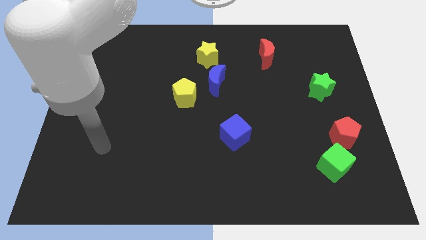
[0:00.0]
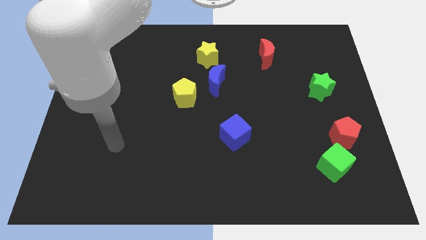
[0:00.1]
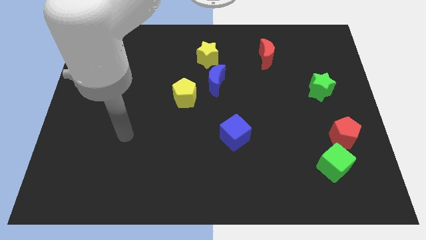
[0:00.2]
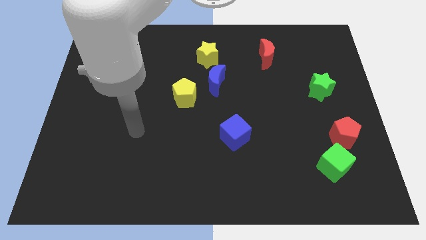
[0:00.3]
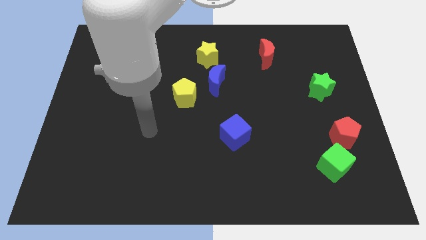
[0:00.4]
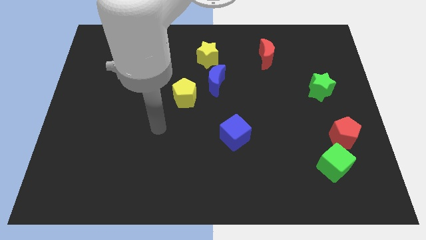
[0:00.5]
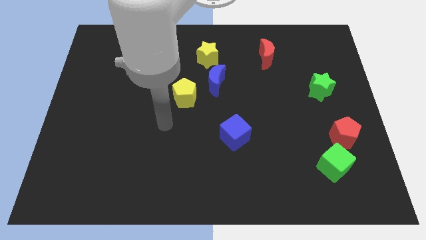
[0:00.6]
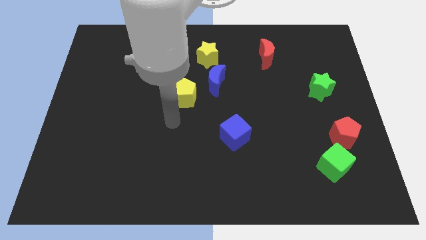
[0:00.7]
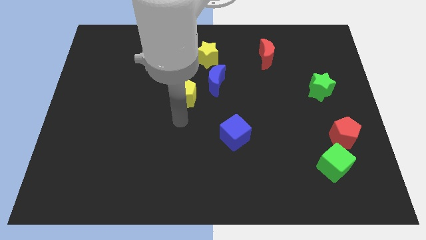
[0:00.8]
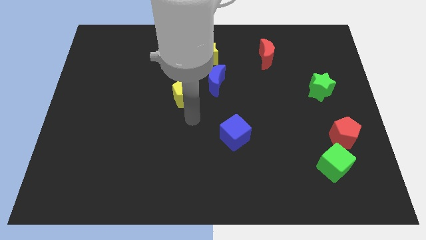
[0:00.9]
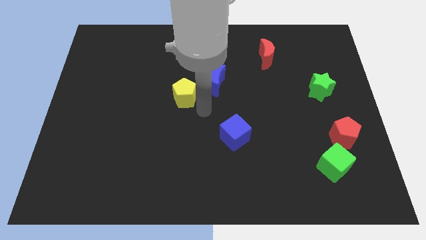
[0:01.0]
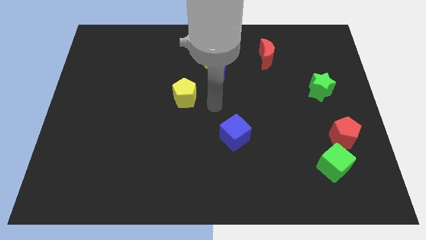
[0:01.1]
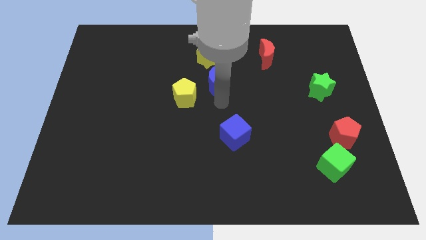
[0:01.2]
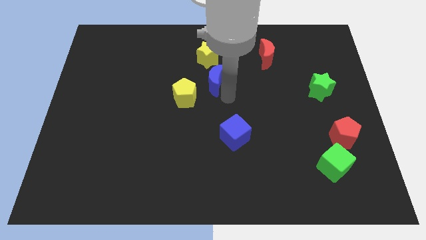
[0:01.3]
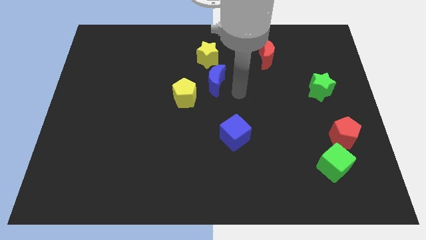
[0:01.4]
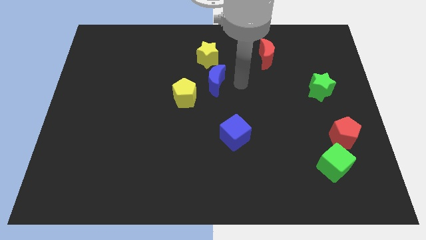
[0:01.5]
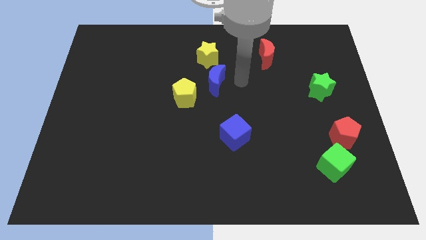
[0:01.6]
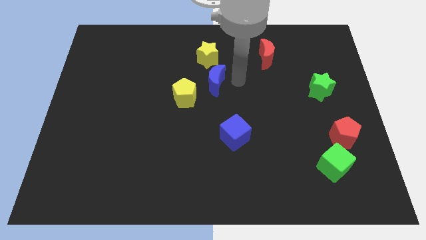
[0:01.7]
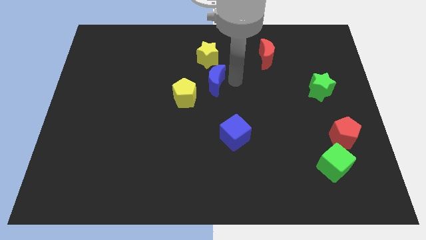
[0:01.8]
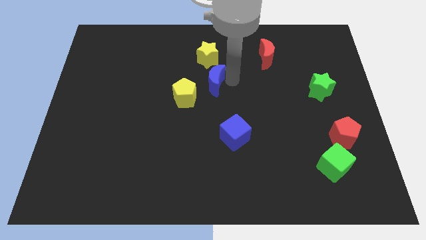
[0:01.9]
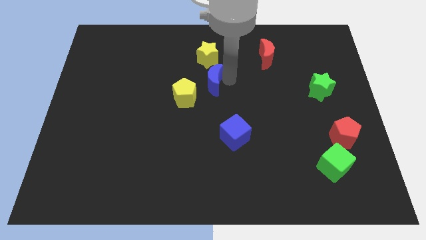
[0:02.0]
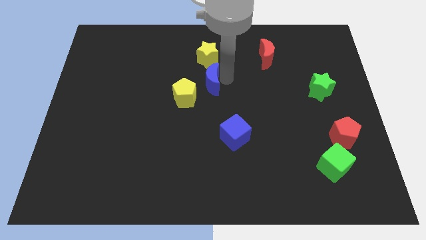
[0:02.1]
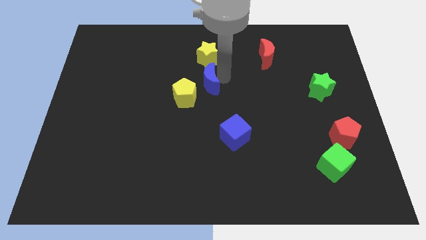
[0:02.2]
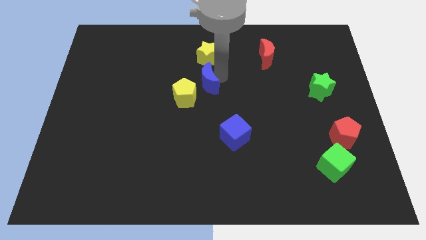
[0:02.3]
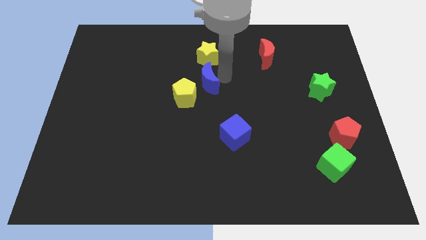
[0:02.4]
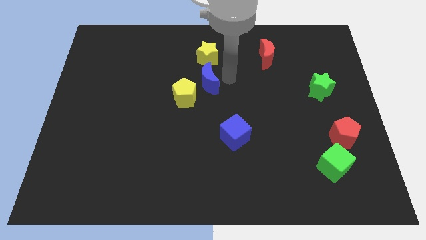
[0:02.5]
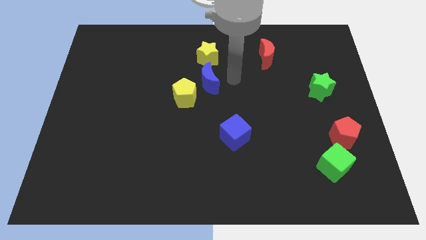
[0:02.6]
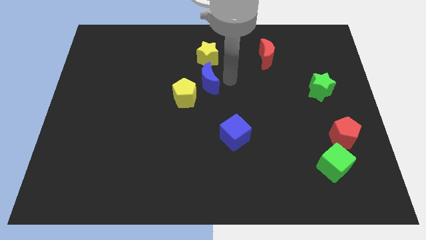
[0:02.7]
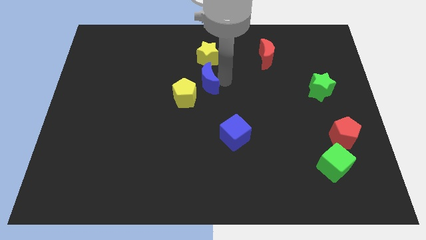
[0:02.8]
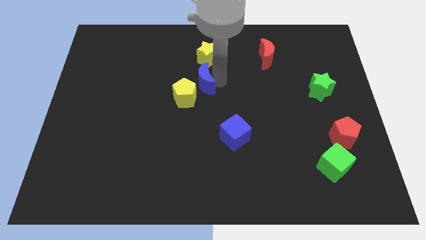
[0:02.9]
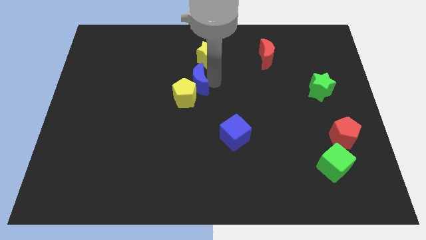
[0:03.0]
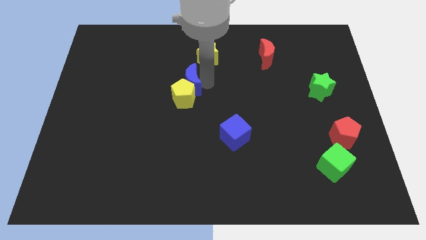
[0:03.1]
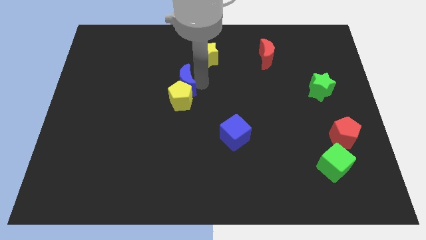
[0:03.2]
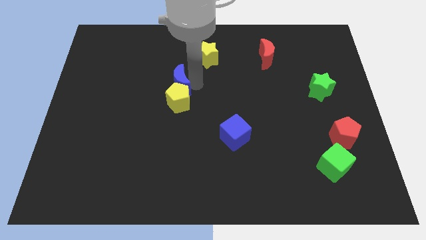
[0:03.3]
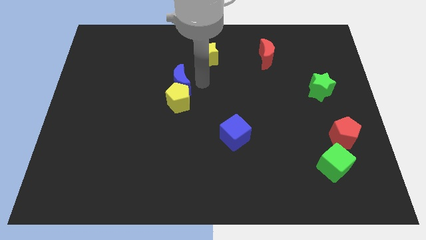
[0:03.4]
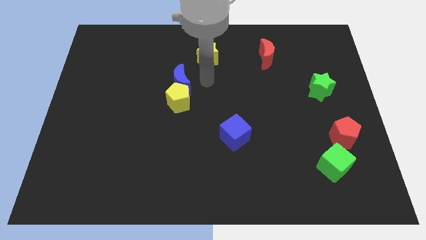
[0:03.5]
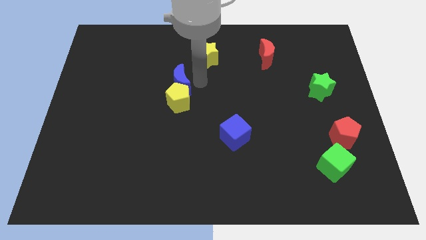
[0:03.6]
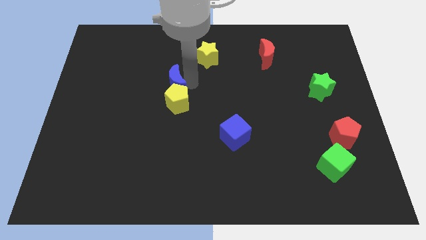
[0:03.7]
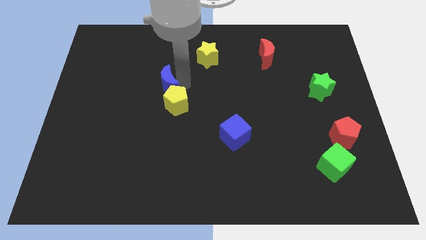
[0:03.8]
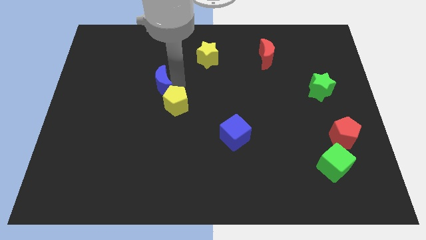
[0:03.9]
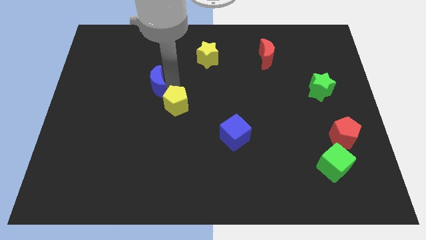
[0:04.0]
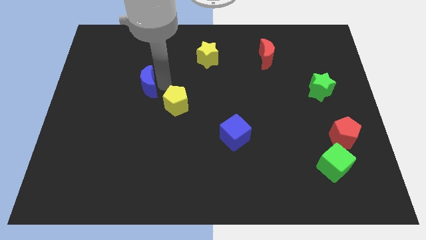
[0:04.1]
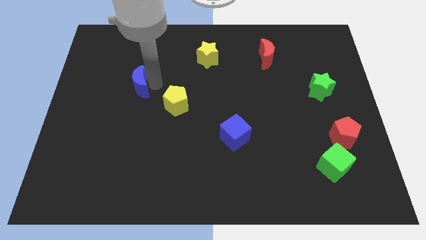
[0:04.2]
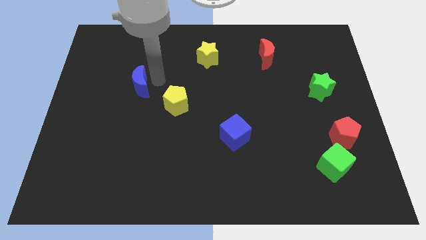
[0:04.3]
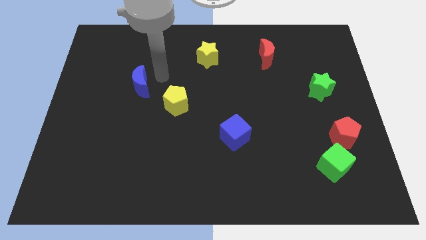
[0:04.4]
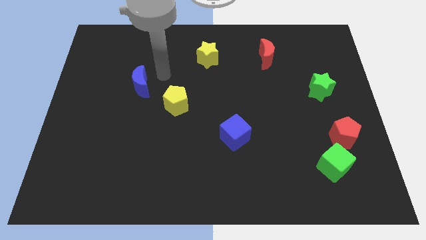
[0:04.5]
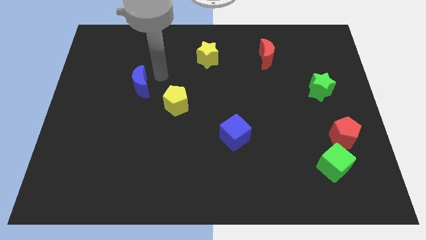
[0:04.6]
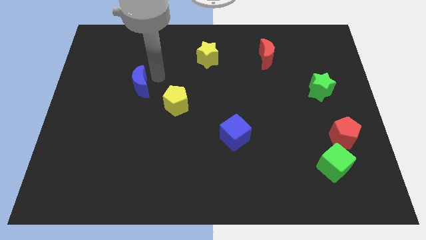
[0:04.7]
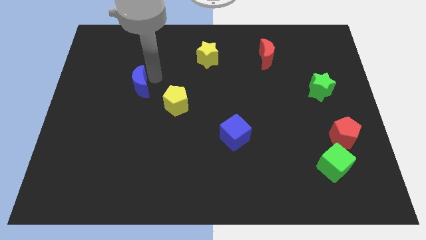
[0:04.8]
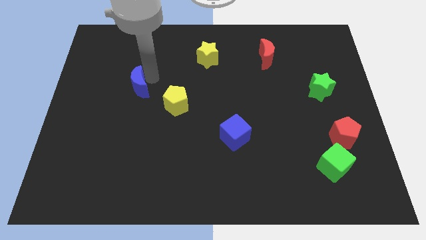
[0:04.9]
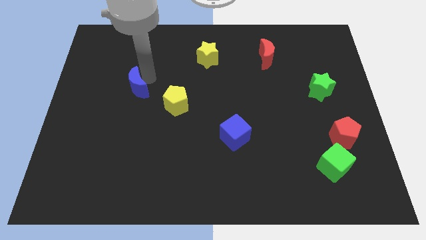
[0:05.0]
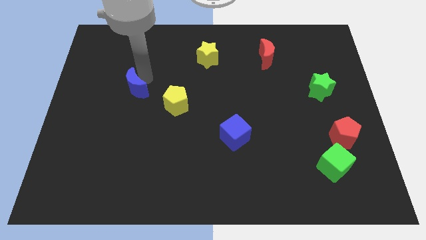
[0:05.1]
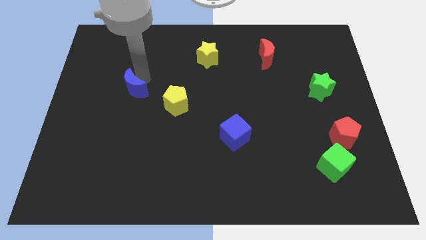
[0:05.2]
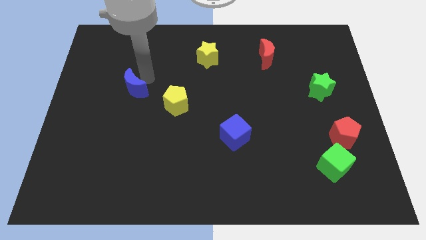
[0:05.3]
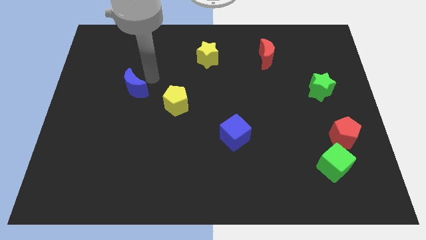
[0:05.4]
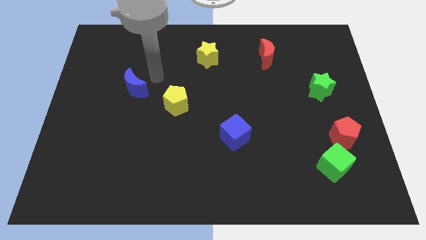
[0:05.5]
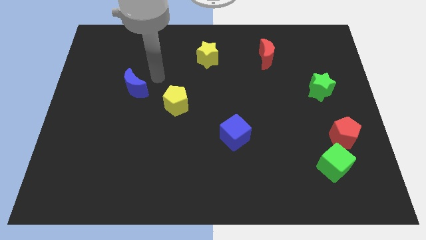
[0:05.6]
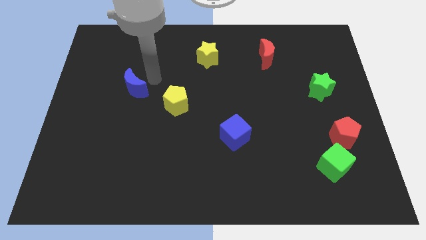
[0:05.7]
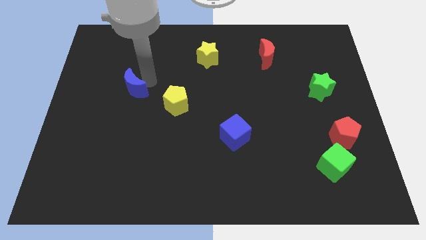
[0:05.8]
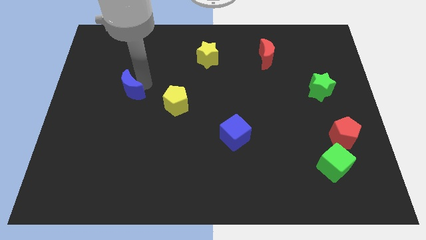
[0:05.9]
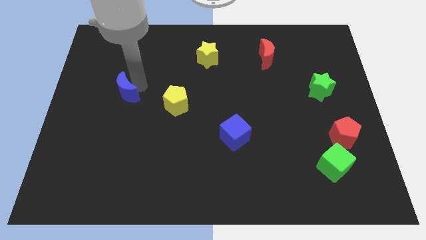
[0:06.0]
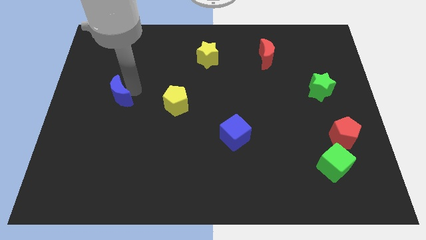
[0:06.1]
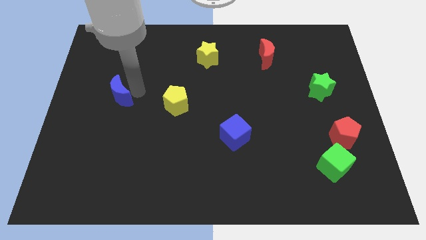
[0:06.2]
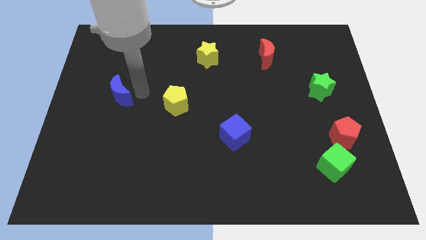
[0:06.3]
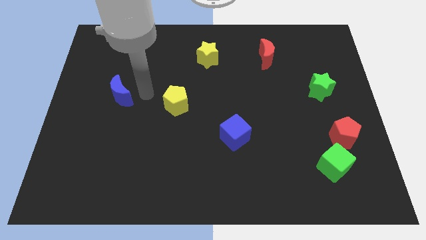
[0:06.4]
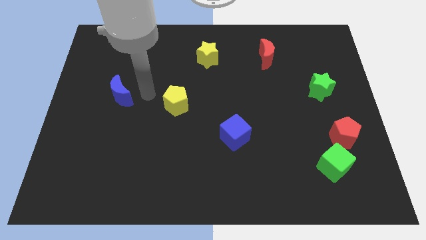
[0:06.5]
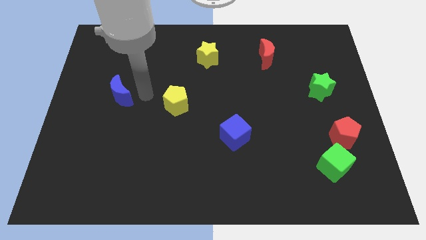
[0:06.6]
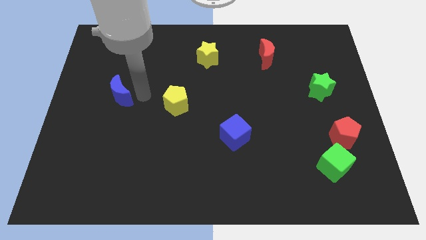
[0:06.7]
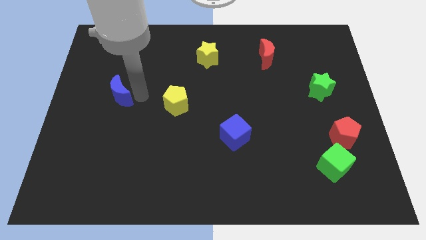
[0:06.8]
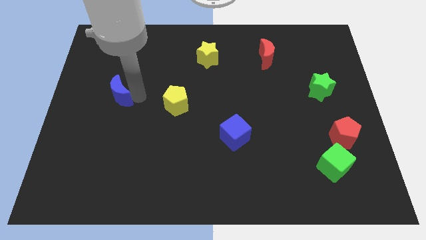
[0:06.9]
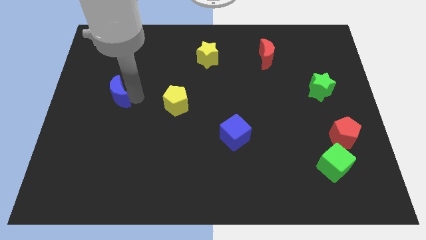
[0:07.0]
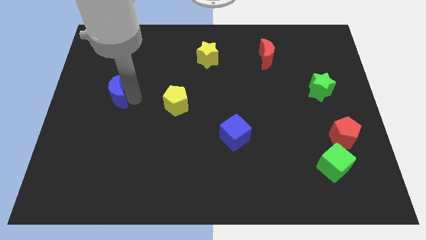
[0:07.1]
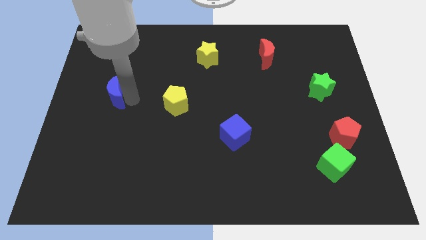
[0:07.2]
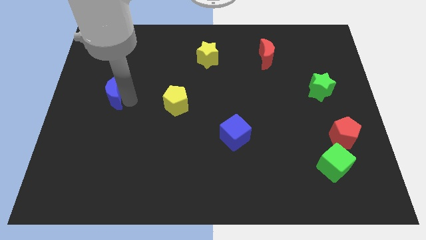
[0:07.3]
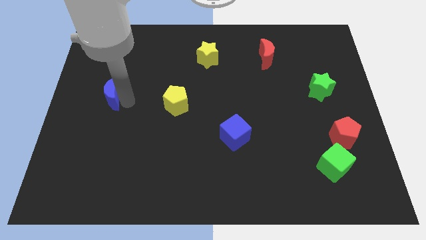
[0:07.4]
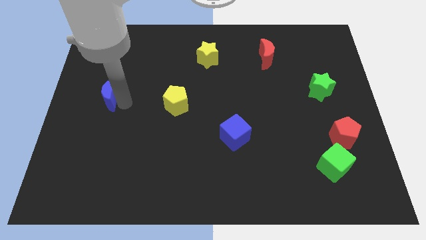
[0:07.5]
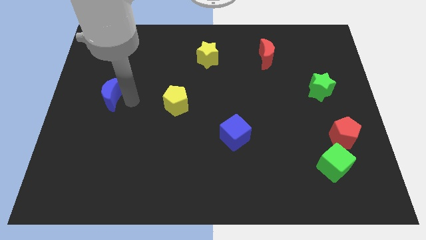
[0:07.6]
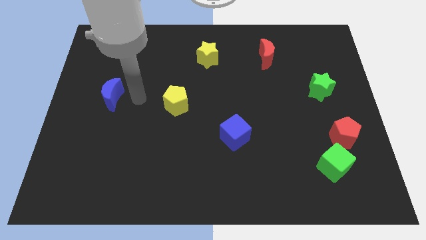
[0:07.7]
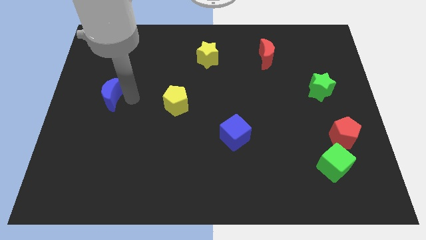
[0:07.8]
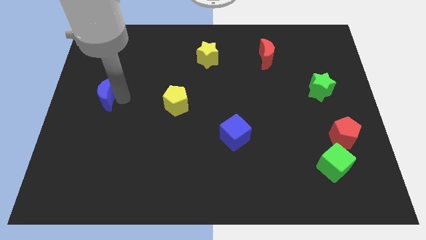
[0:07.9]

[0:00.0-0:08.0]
slide the blue moon to the left side
